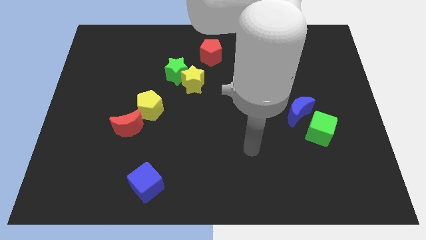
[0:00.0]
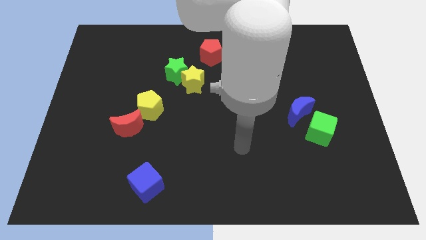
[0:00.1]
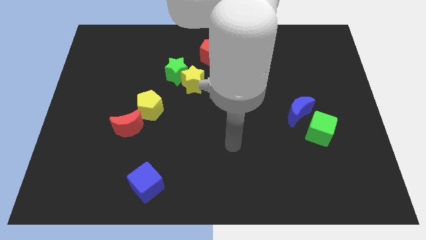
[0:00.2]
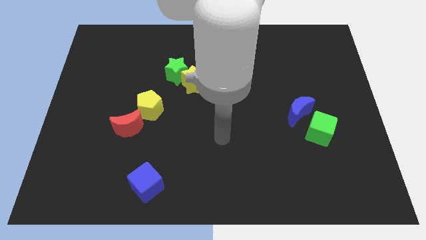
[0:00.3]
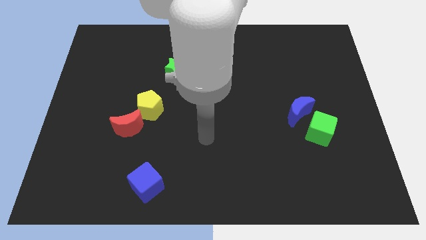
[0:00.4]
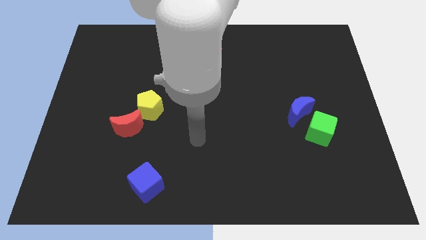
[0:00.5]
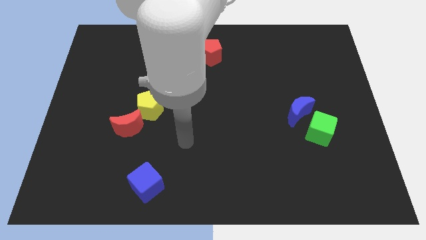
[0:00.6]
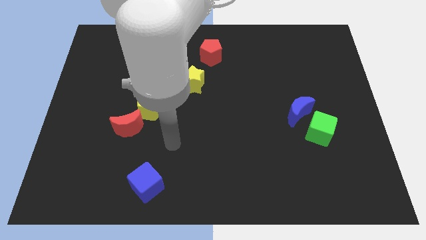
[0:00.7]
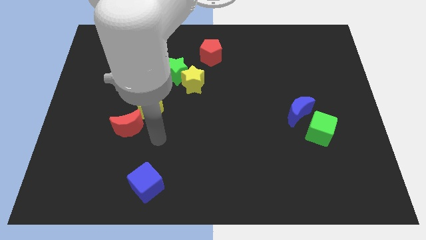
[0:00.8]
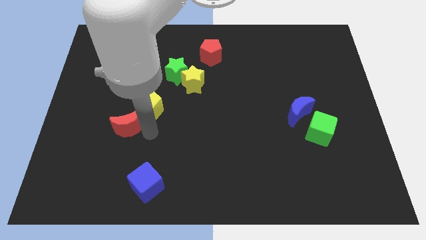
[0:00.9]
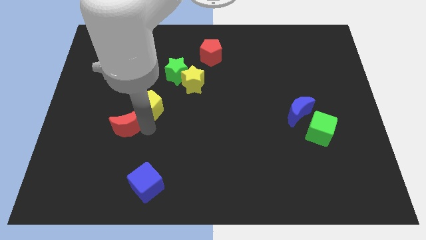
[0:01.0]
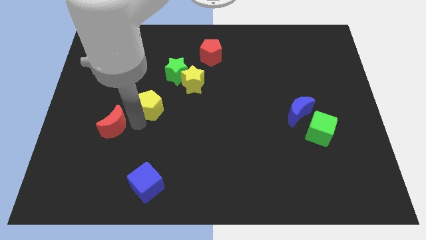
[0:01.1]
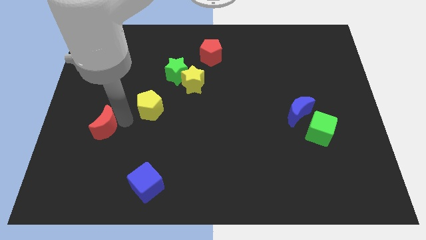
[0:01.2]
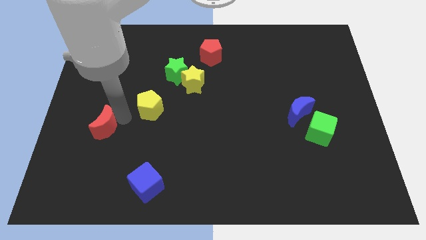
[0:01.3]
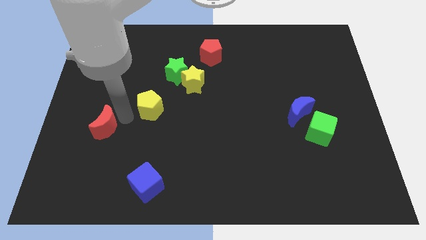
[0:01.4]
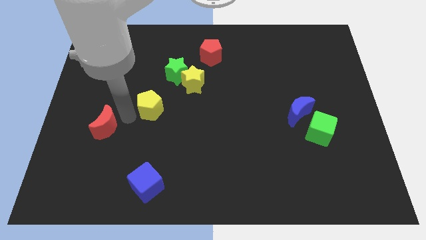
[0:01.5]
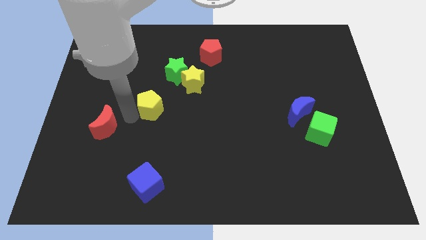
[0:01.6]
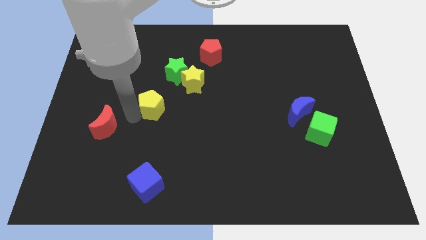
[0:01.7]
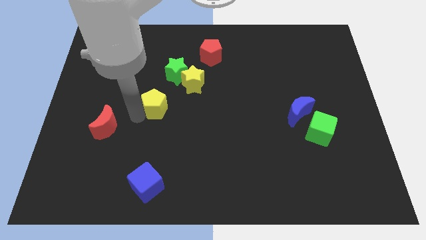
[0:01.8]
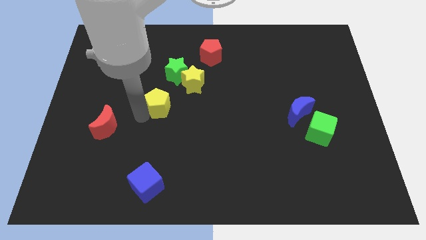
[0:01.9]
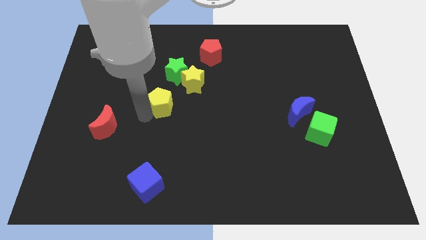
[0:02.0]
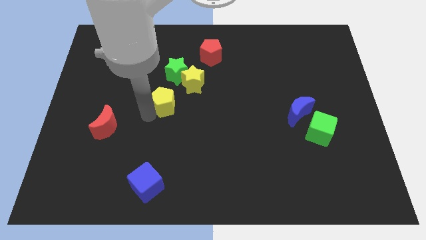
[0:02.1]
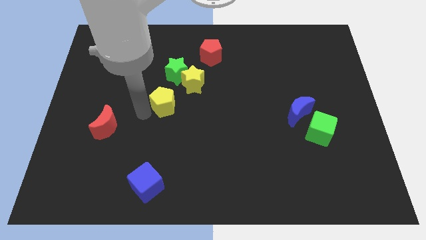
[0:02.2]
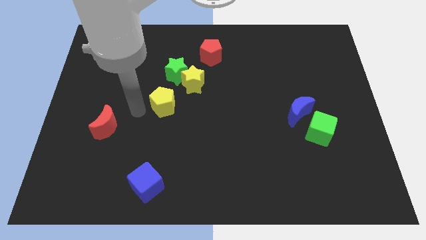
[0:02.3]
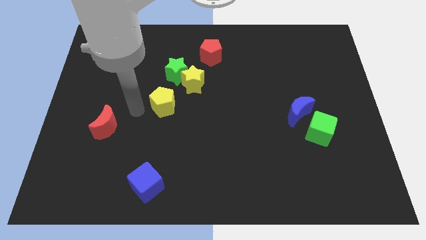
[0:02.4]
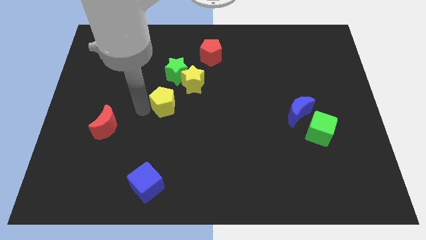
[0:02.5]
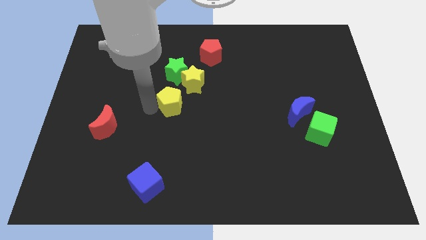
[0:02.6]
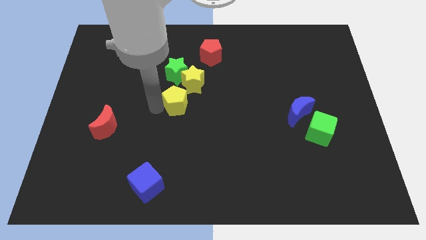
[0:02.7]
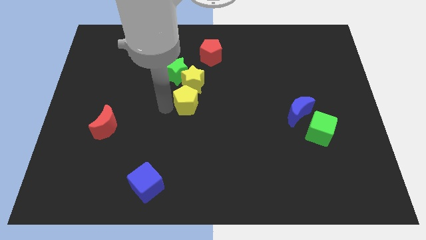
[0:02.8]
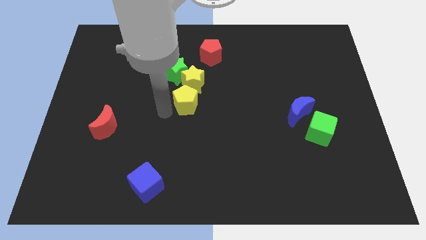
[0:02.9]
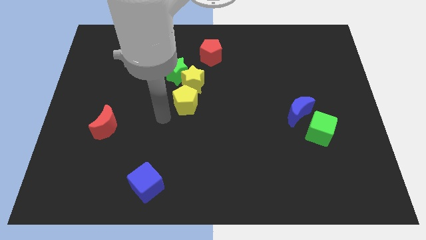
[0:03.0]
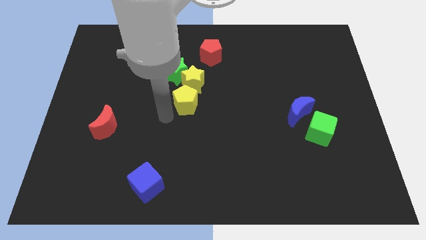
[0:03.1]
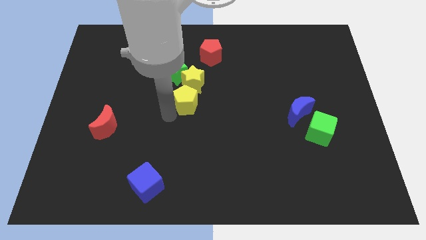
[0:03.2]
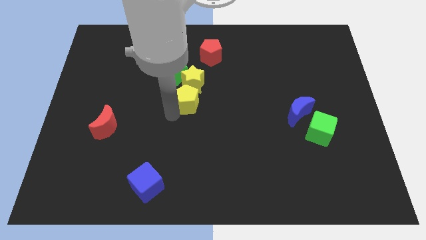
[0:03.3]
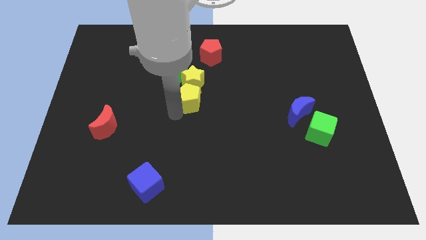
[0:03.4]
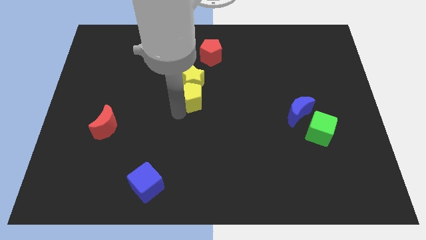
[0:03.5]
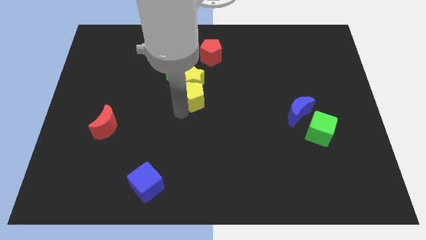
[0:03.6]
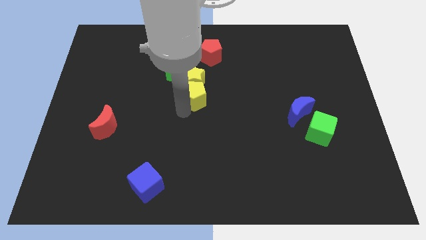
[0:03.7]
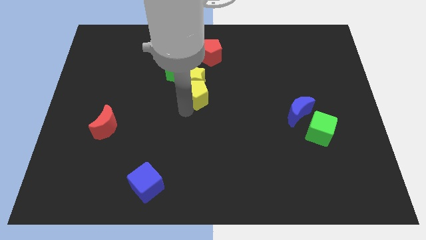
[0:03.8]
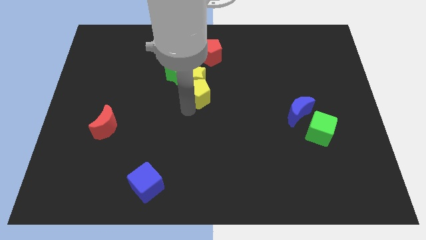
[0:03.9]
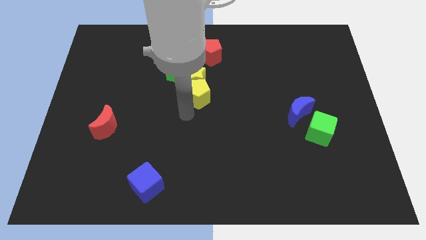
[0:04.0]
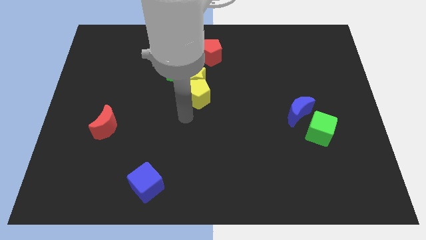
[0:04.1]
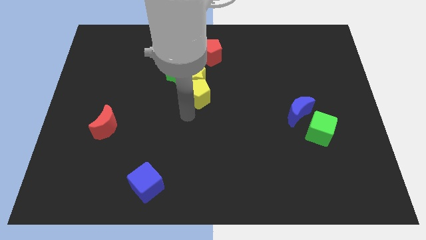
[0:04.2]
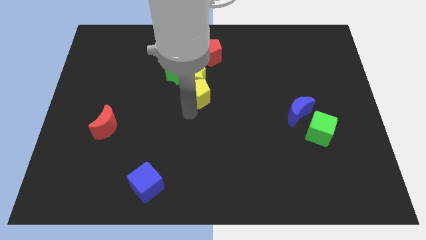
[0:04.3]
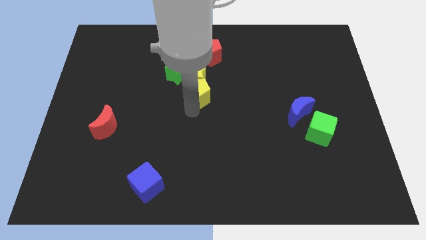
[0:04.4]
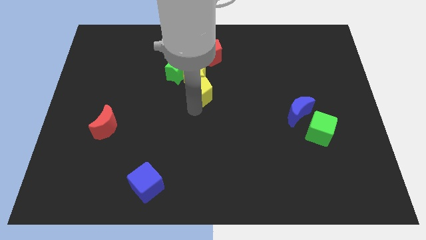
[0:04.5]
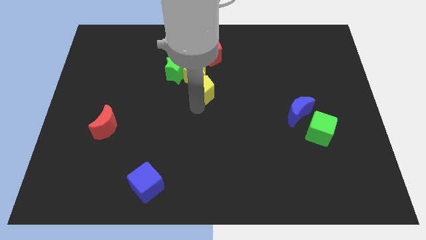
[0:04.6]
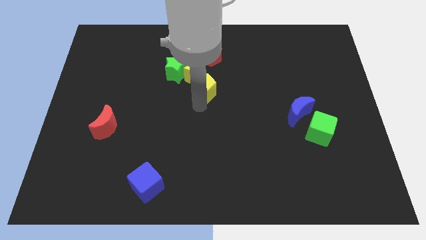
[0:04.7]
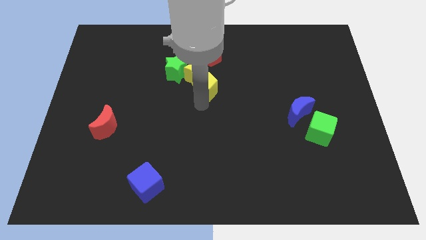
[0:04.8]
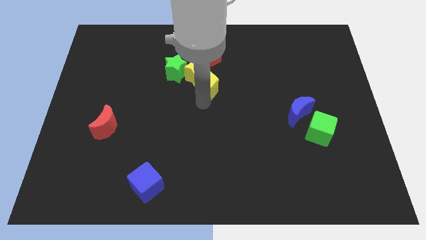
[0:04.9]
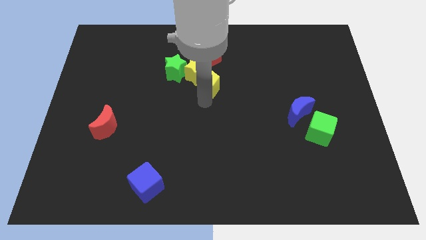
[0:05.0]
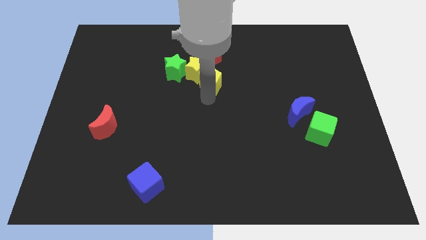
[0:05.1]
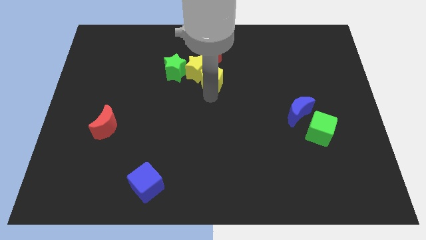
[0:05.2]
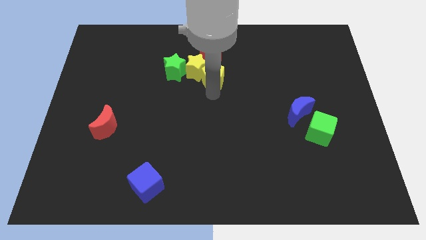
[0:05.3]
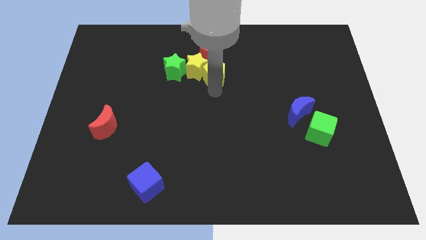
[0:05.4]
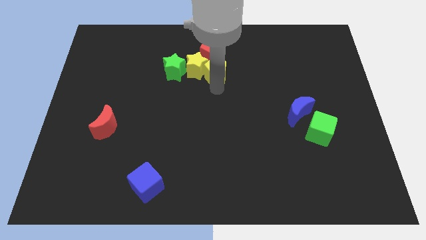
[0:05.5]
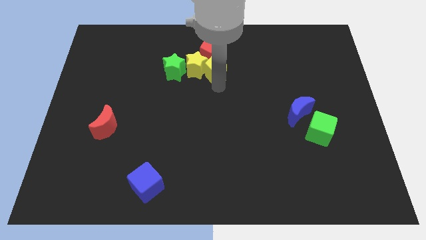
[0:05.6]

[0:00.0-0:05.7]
push the yellow pentagon next to the red pentagon

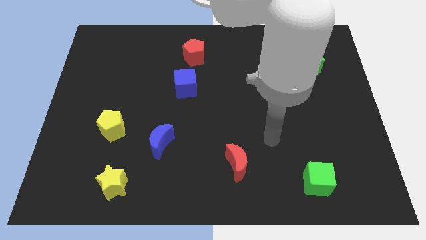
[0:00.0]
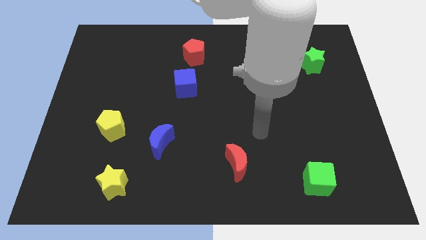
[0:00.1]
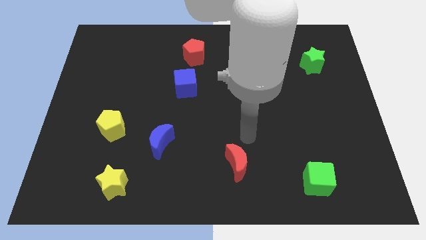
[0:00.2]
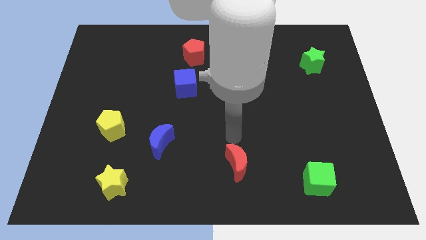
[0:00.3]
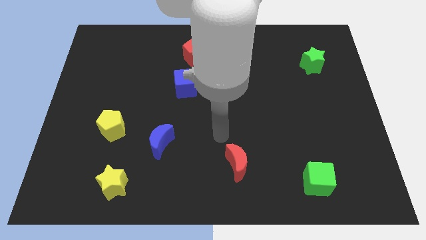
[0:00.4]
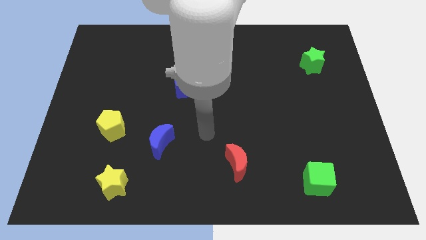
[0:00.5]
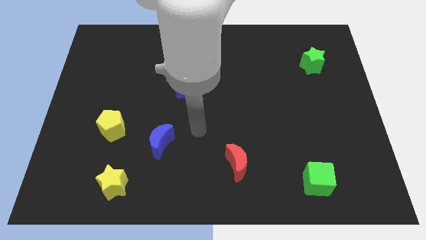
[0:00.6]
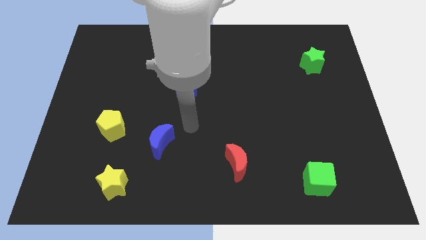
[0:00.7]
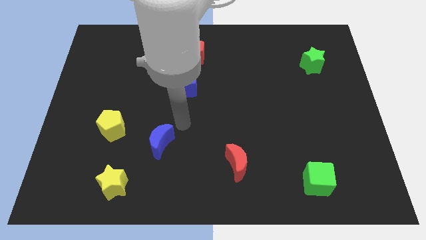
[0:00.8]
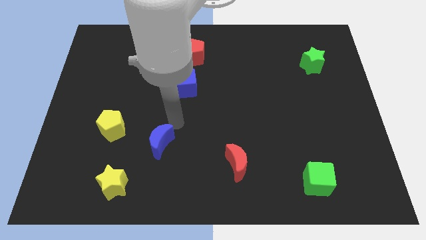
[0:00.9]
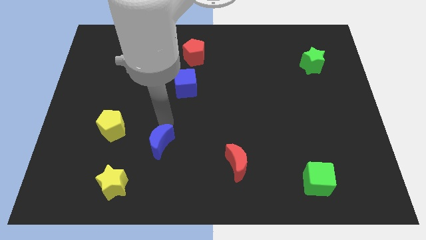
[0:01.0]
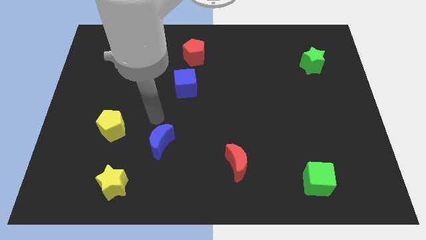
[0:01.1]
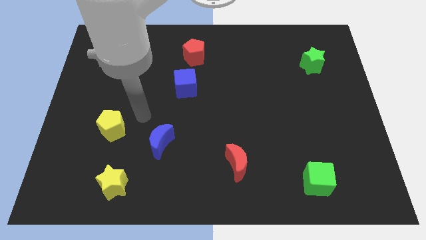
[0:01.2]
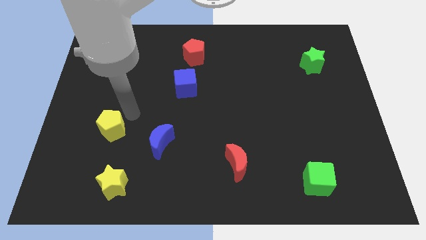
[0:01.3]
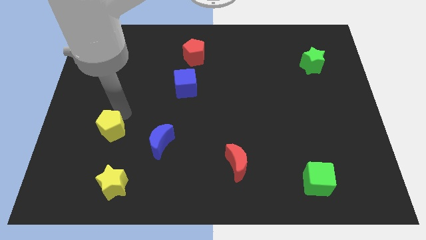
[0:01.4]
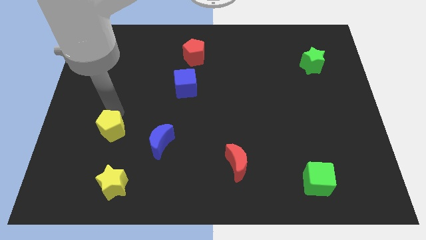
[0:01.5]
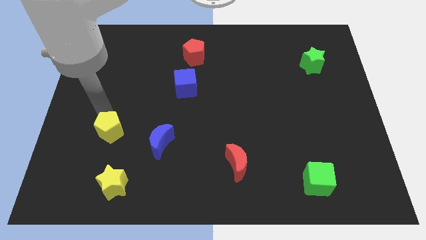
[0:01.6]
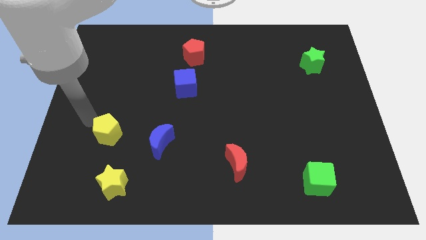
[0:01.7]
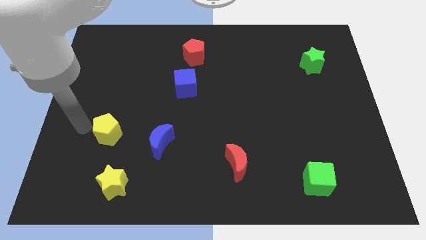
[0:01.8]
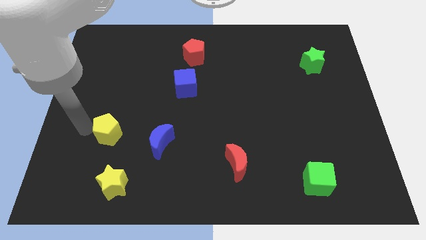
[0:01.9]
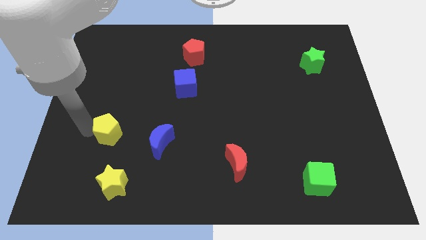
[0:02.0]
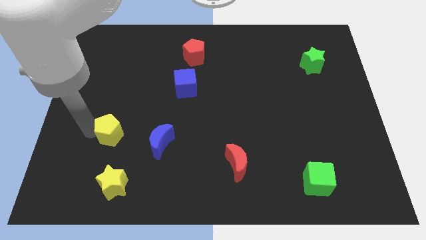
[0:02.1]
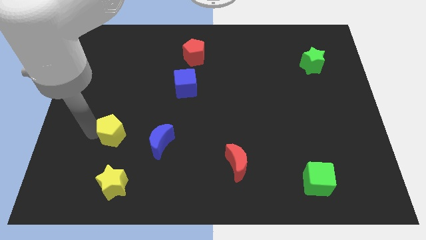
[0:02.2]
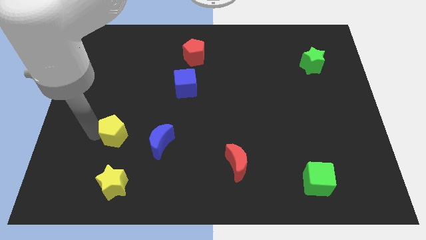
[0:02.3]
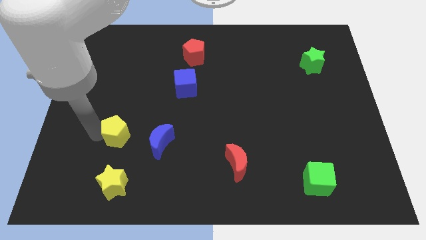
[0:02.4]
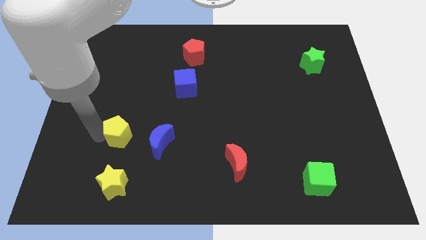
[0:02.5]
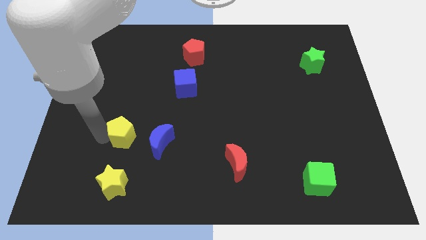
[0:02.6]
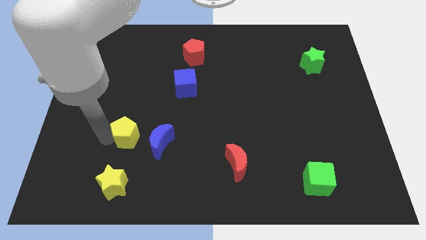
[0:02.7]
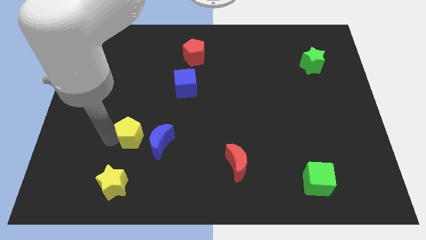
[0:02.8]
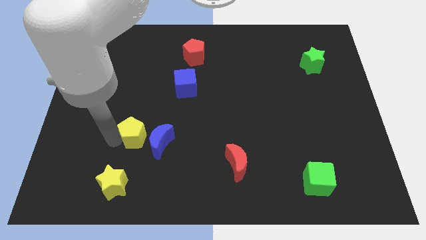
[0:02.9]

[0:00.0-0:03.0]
move the yellow pentagon close to the blue moon
